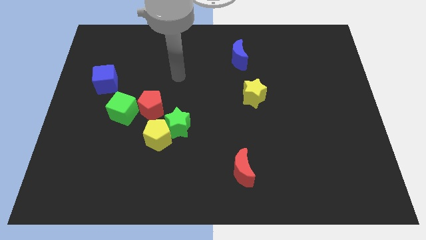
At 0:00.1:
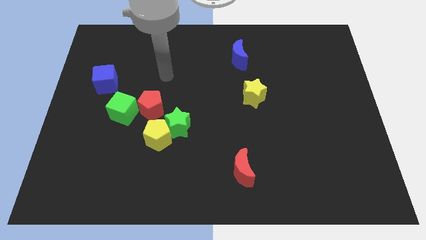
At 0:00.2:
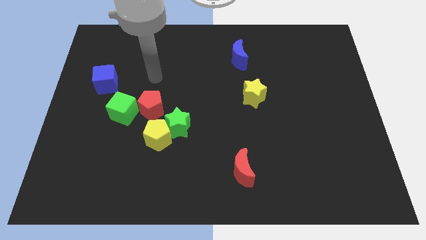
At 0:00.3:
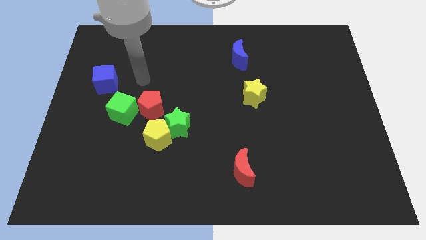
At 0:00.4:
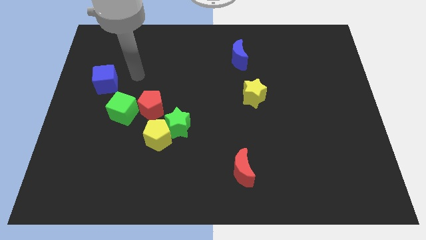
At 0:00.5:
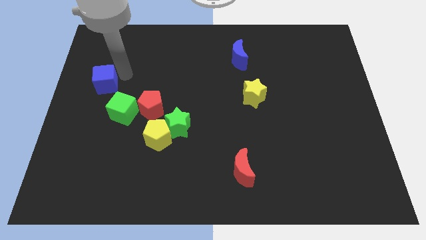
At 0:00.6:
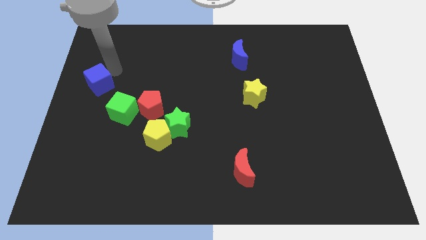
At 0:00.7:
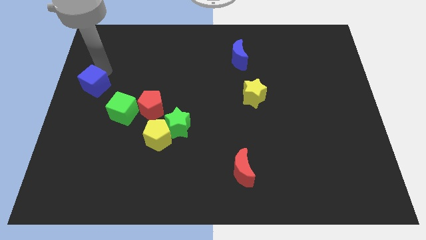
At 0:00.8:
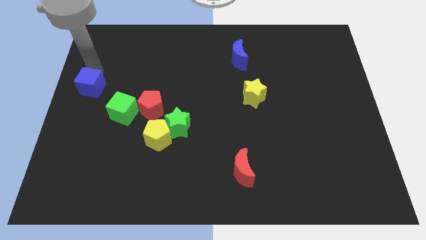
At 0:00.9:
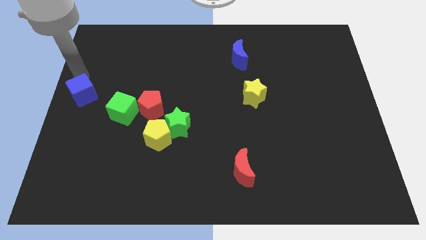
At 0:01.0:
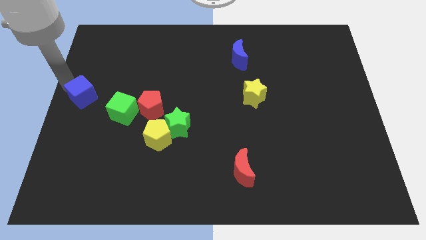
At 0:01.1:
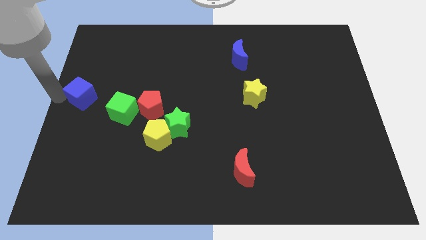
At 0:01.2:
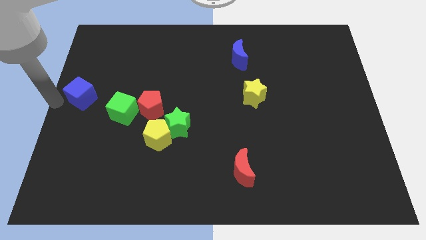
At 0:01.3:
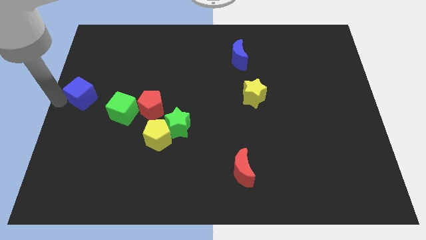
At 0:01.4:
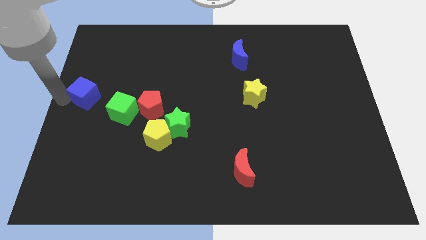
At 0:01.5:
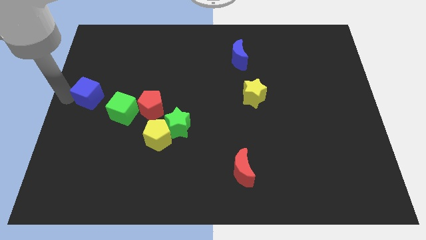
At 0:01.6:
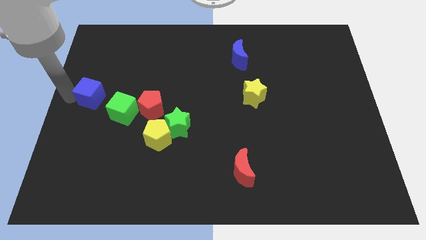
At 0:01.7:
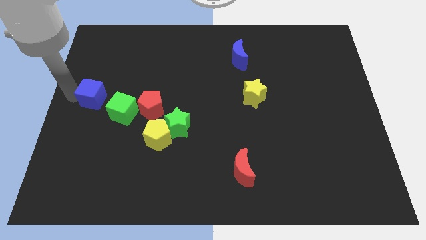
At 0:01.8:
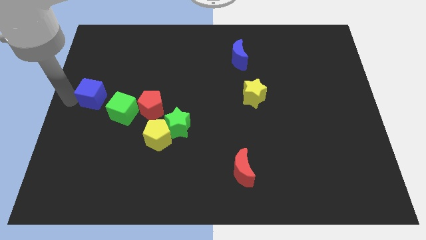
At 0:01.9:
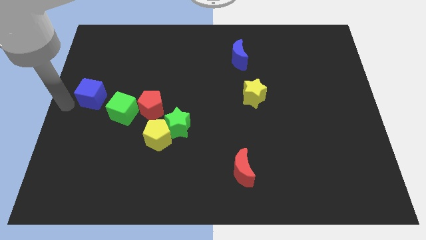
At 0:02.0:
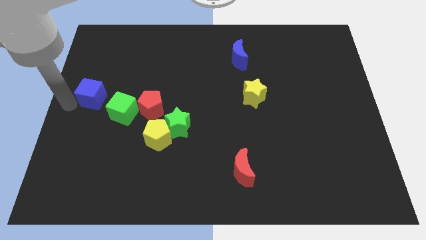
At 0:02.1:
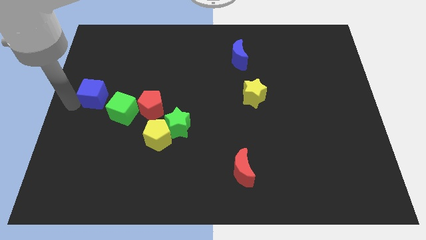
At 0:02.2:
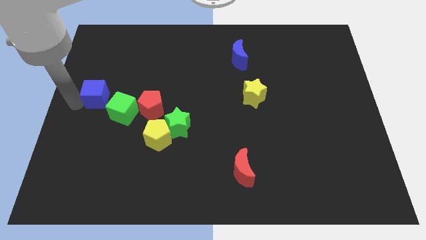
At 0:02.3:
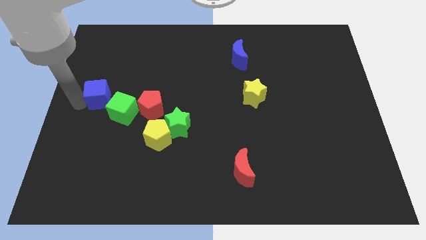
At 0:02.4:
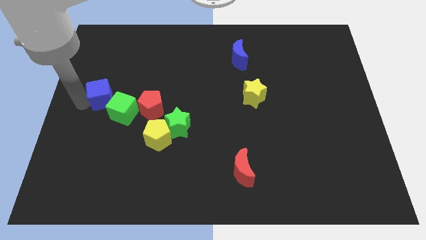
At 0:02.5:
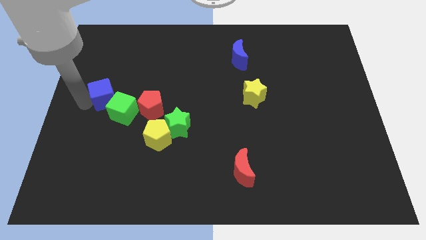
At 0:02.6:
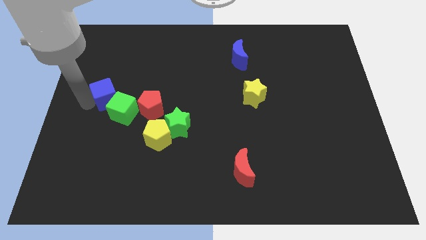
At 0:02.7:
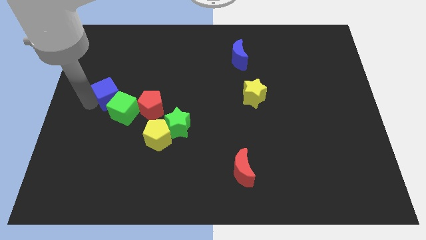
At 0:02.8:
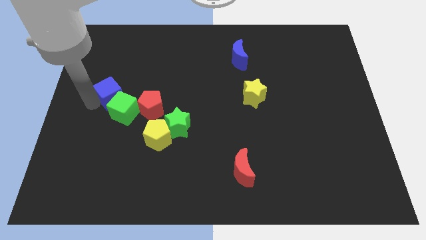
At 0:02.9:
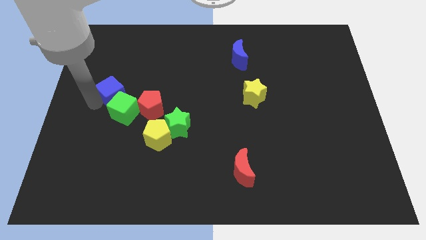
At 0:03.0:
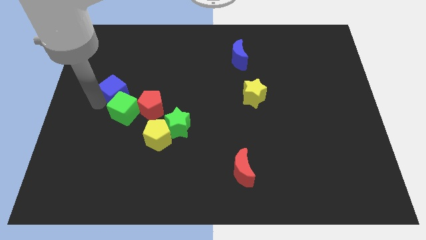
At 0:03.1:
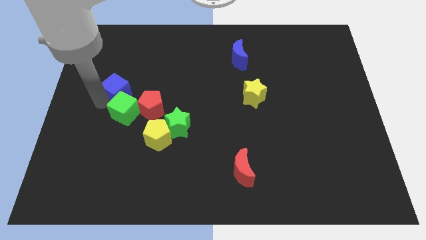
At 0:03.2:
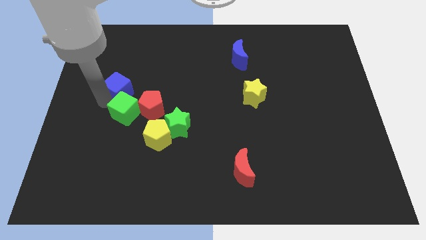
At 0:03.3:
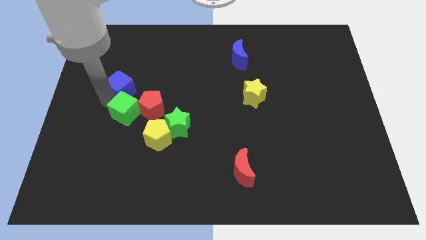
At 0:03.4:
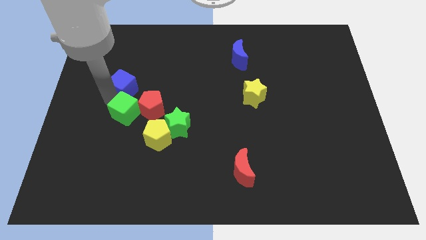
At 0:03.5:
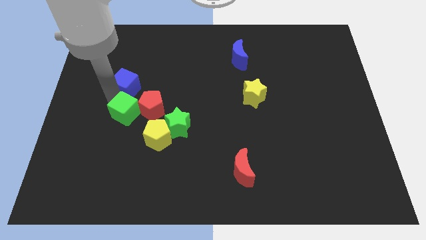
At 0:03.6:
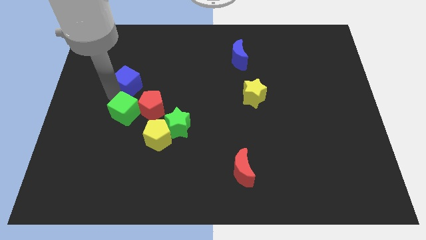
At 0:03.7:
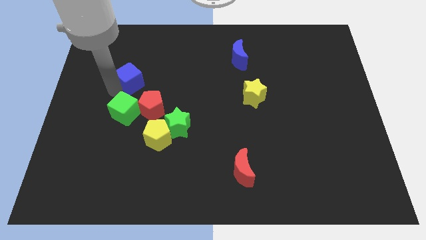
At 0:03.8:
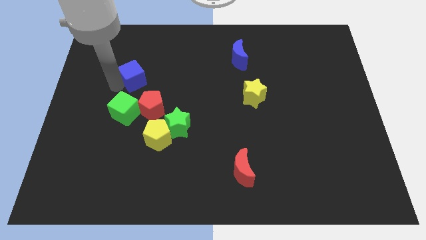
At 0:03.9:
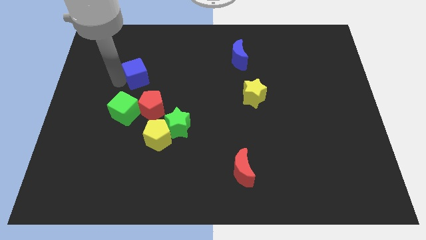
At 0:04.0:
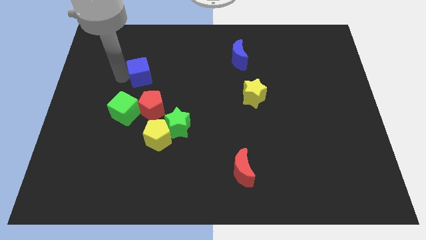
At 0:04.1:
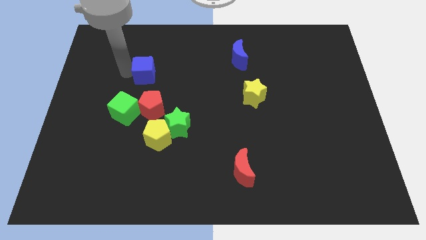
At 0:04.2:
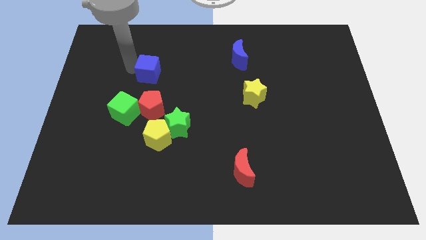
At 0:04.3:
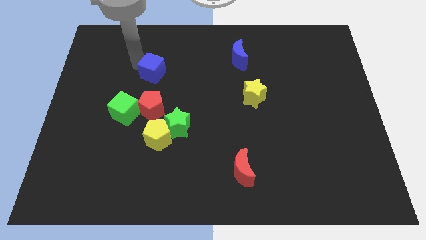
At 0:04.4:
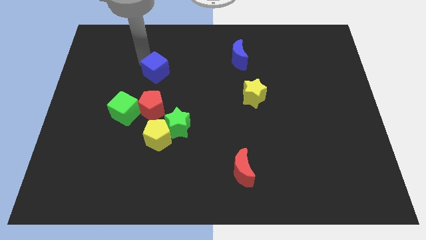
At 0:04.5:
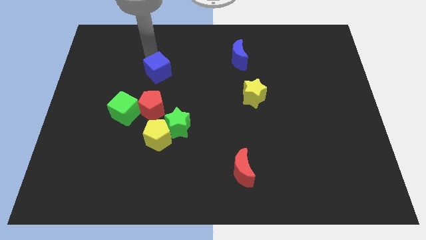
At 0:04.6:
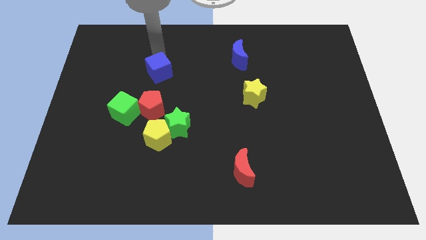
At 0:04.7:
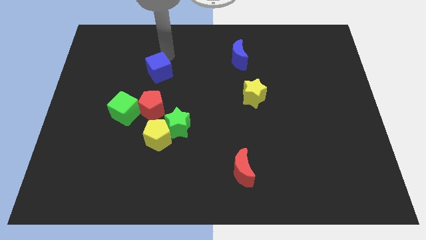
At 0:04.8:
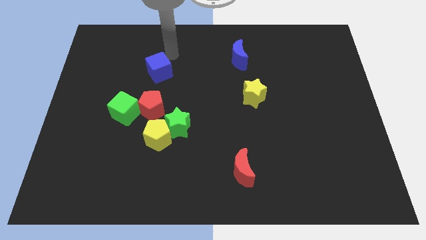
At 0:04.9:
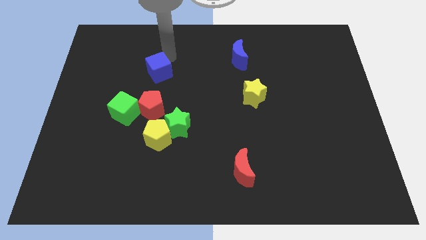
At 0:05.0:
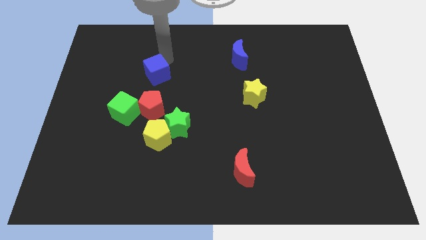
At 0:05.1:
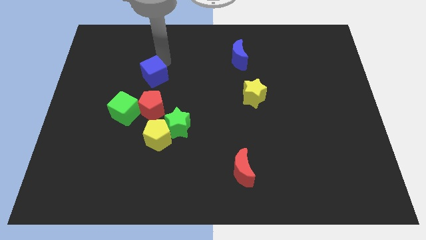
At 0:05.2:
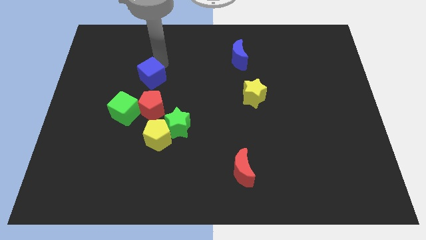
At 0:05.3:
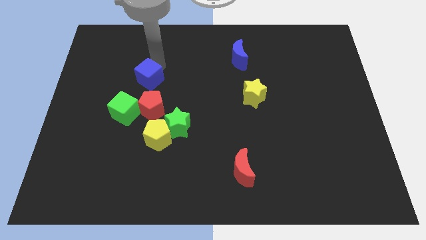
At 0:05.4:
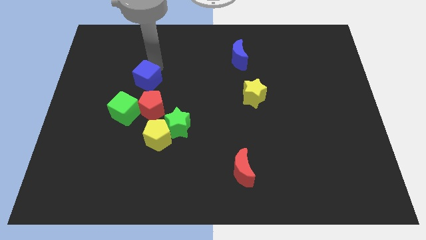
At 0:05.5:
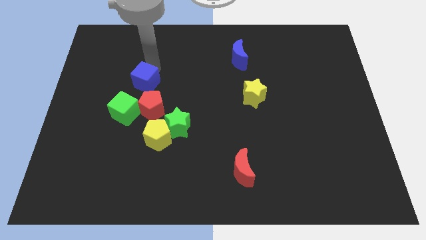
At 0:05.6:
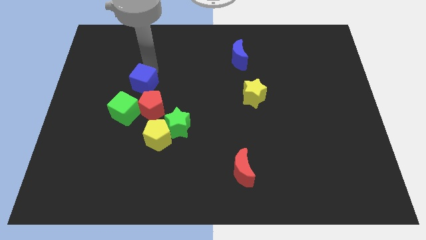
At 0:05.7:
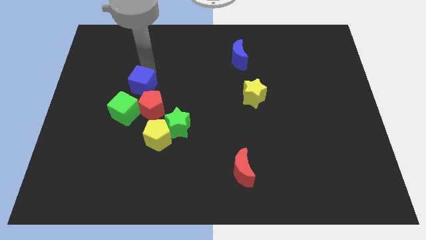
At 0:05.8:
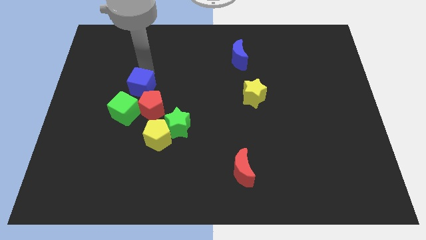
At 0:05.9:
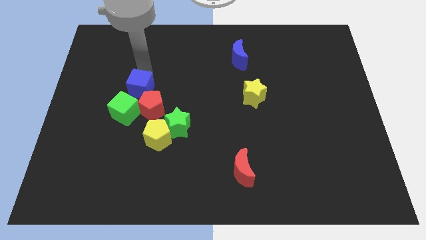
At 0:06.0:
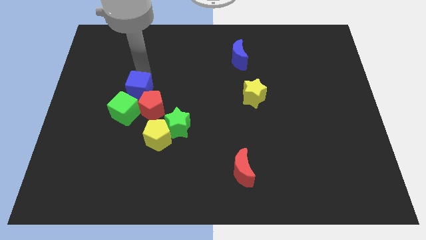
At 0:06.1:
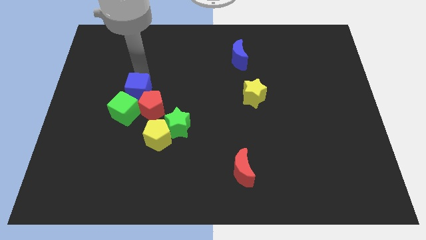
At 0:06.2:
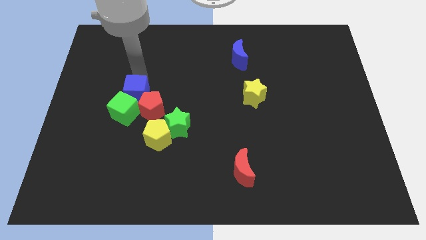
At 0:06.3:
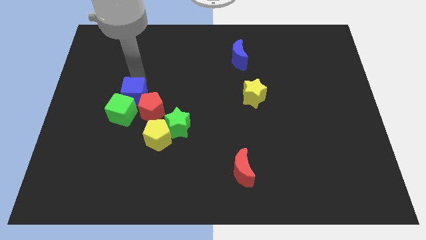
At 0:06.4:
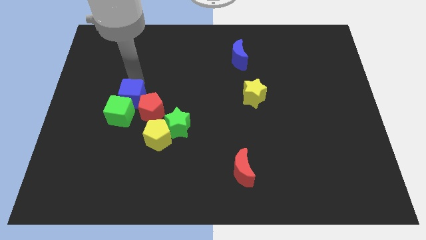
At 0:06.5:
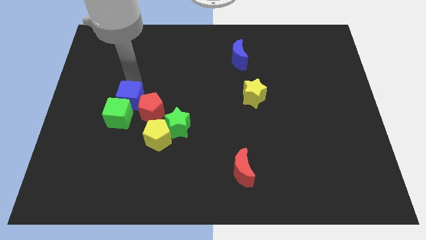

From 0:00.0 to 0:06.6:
push the blue cube next to the red pentagon
